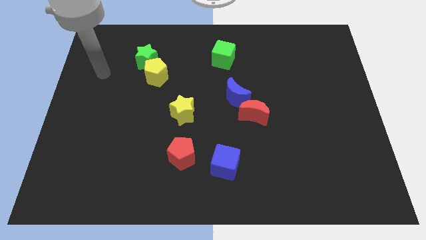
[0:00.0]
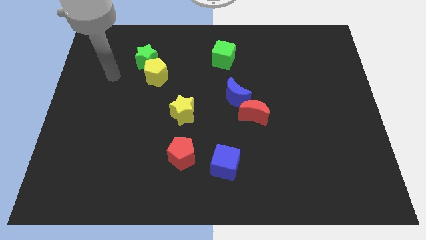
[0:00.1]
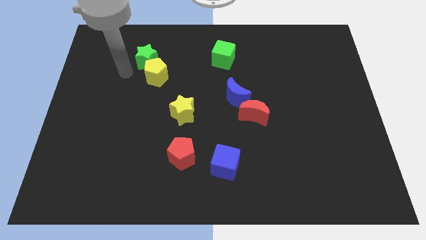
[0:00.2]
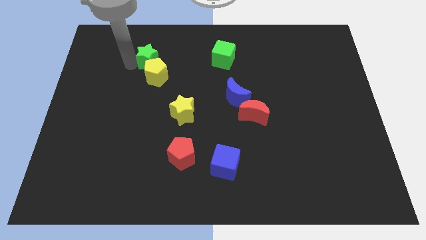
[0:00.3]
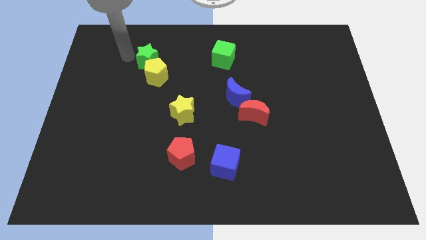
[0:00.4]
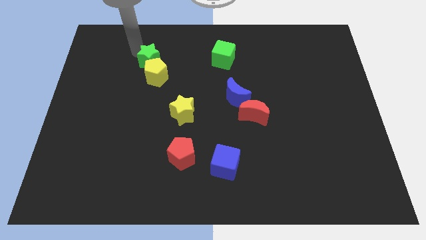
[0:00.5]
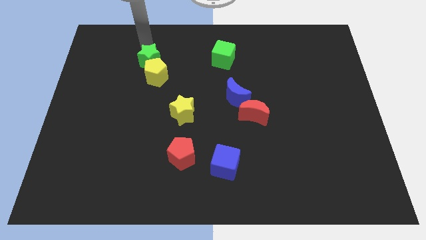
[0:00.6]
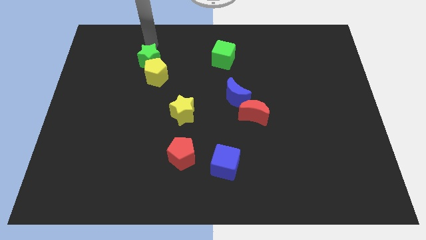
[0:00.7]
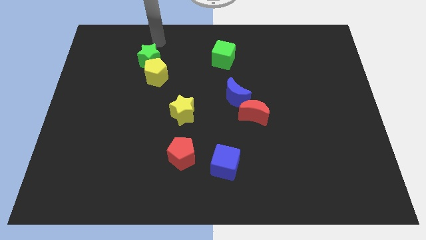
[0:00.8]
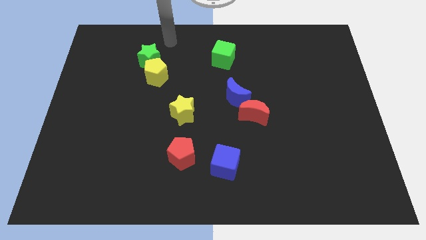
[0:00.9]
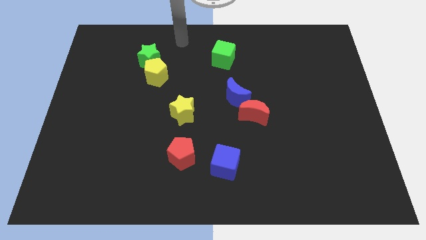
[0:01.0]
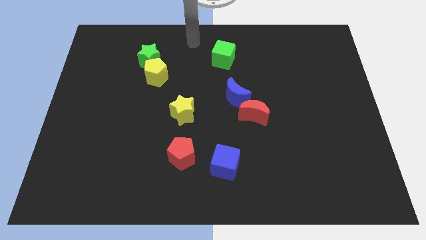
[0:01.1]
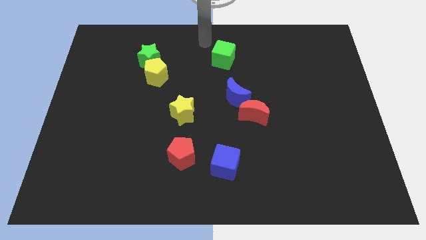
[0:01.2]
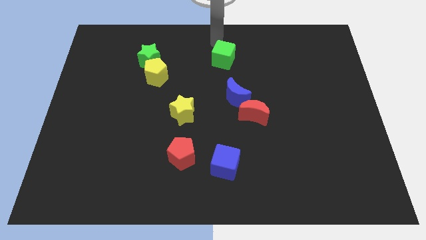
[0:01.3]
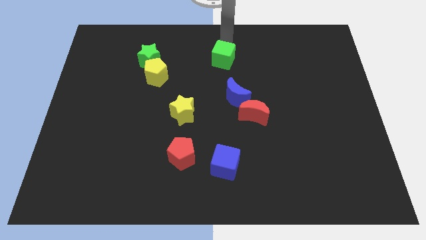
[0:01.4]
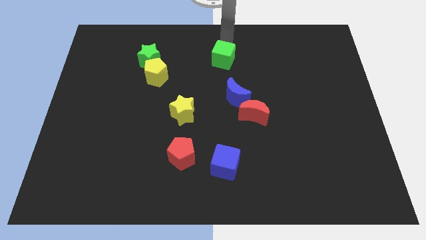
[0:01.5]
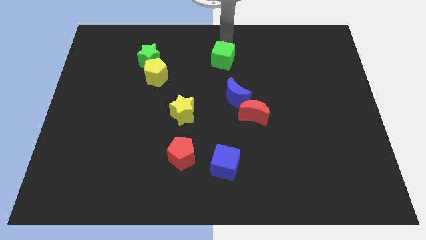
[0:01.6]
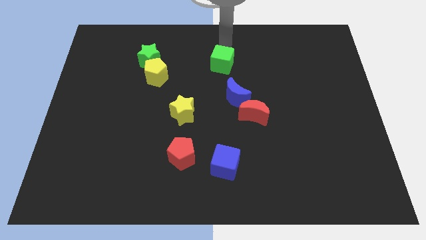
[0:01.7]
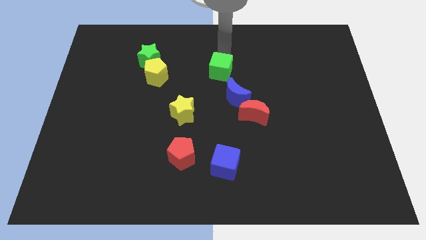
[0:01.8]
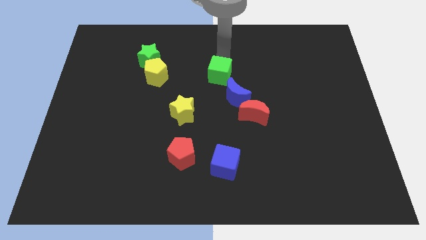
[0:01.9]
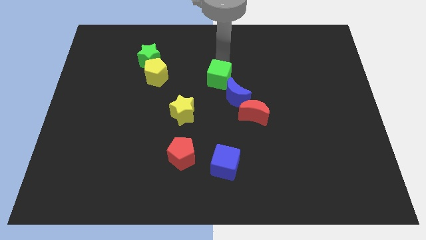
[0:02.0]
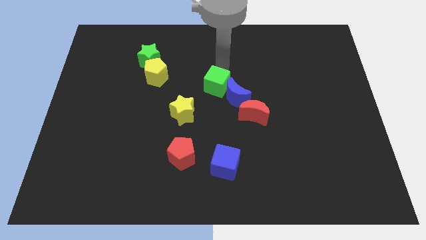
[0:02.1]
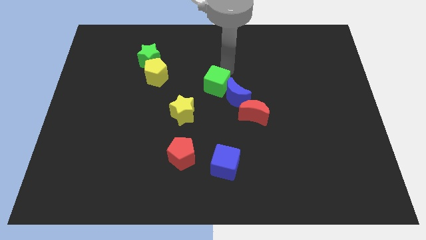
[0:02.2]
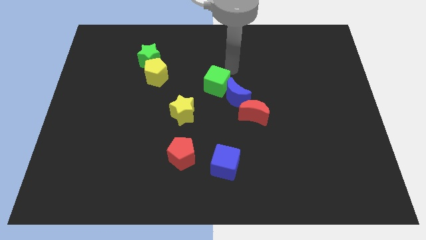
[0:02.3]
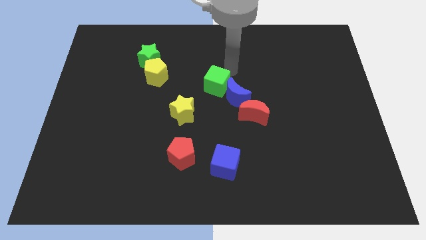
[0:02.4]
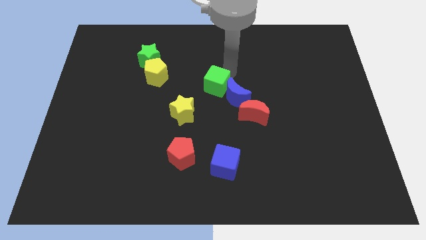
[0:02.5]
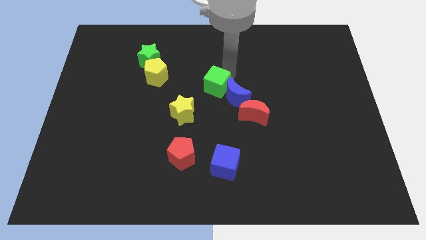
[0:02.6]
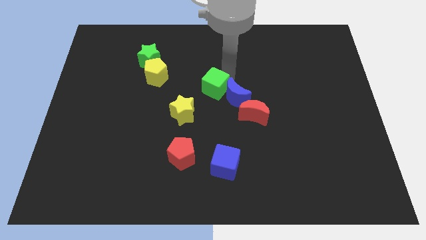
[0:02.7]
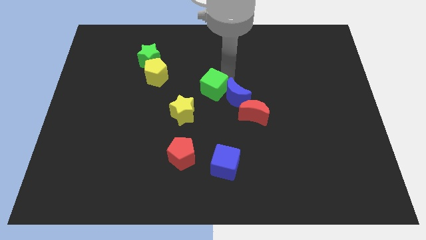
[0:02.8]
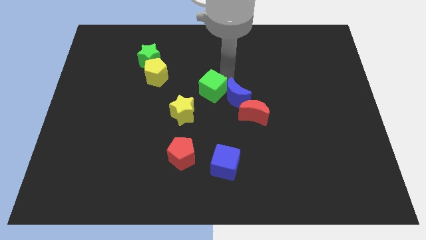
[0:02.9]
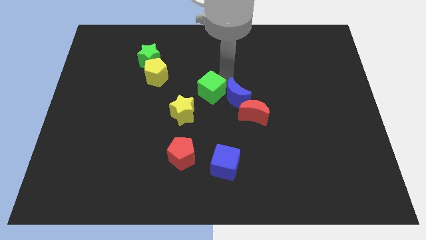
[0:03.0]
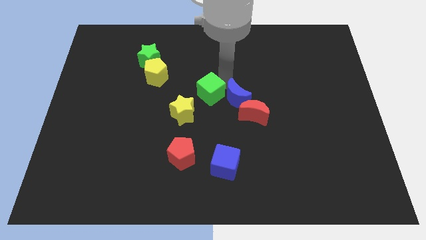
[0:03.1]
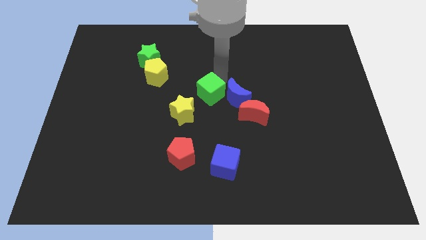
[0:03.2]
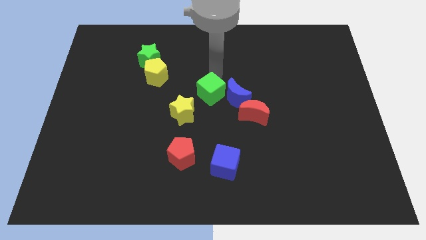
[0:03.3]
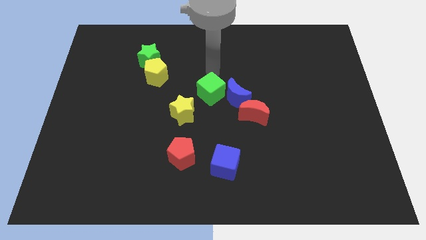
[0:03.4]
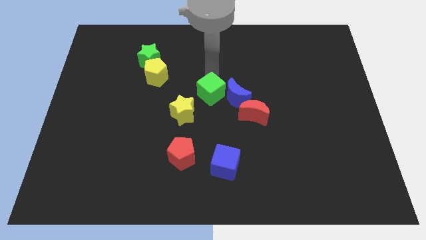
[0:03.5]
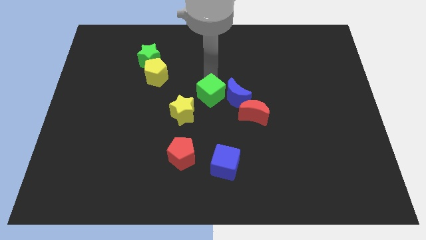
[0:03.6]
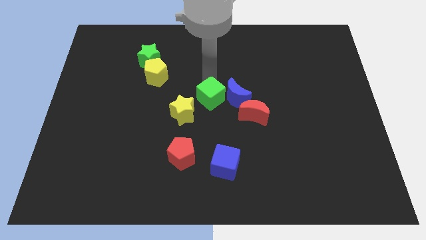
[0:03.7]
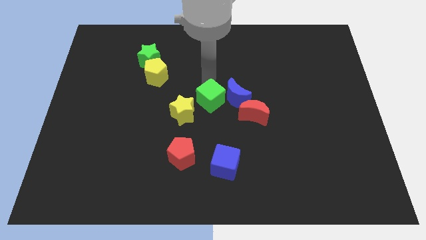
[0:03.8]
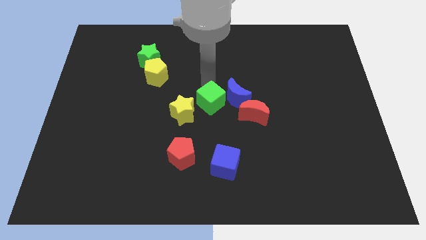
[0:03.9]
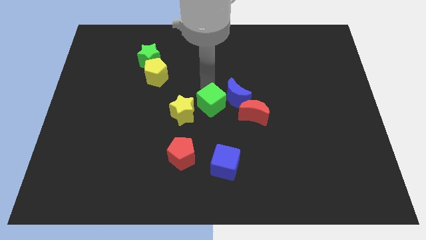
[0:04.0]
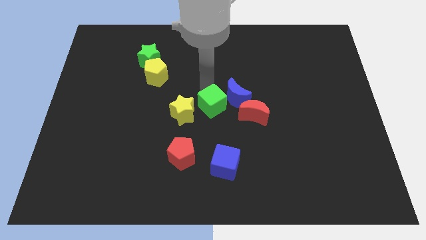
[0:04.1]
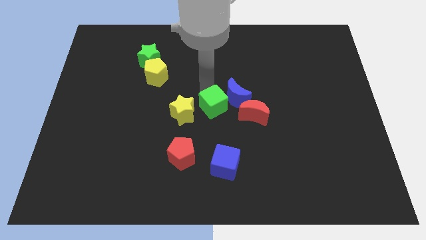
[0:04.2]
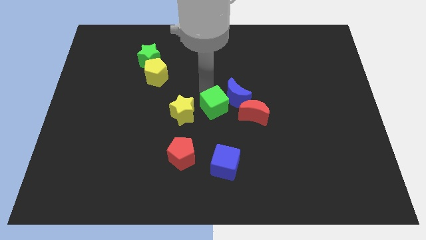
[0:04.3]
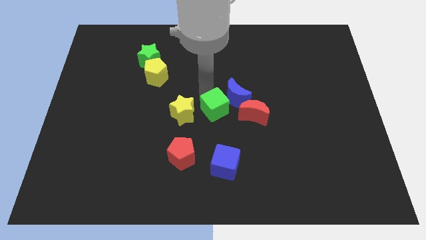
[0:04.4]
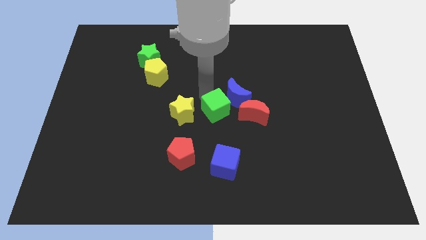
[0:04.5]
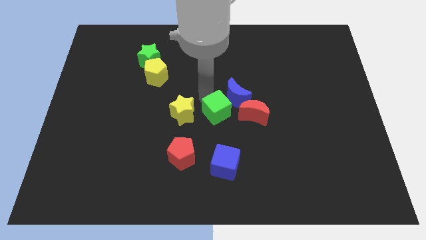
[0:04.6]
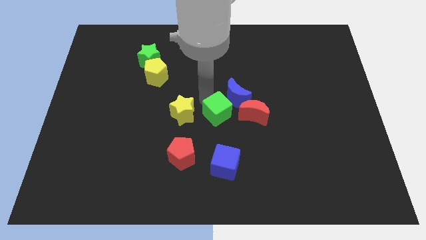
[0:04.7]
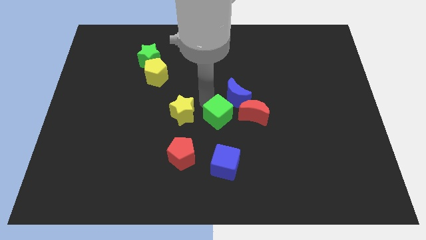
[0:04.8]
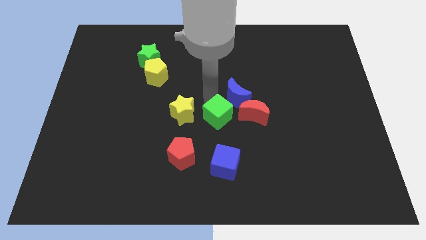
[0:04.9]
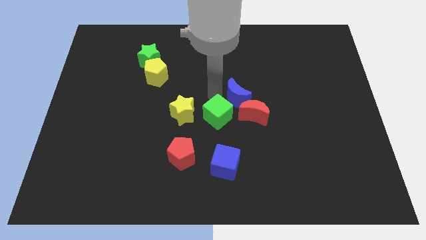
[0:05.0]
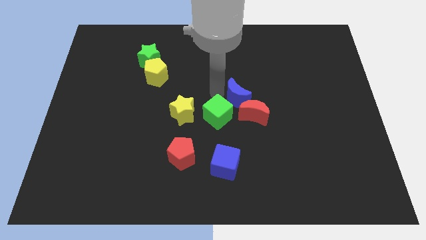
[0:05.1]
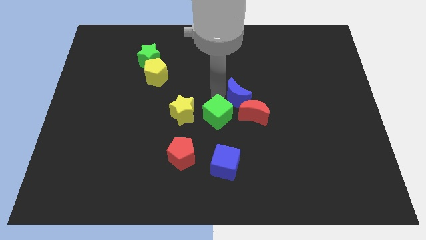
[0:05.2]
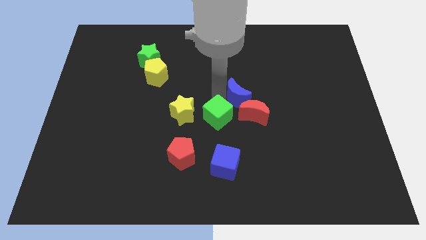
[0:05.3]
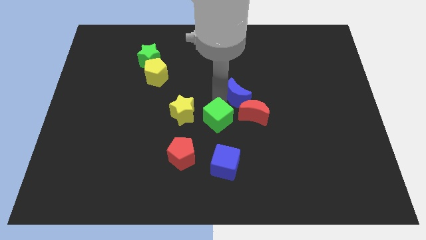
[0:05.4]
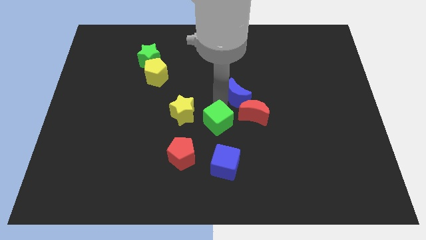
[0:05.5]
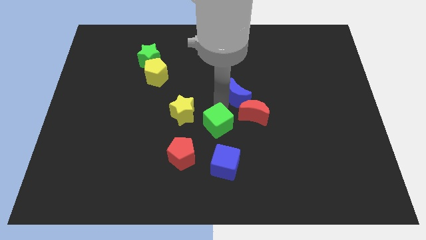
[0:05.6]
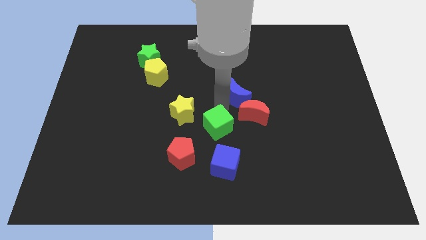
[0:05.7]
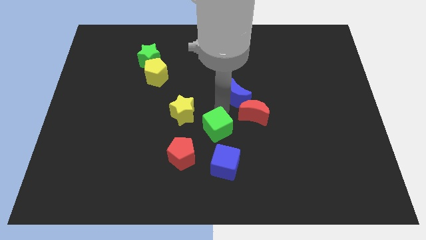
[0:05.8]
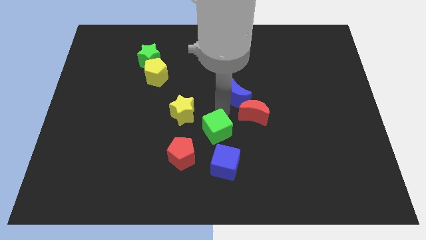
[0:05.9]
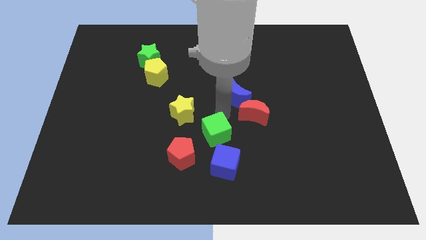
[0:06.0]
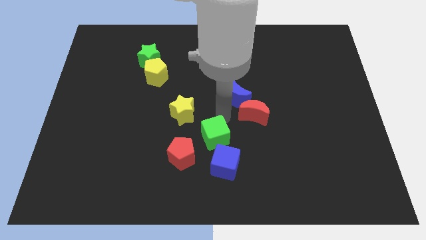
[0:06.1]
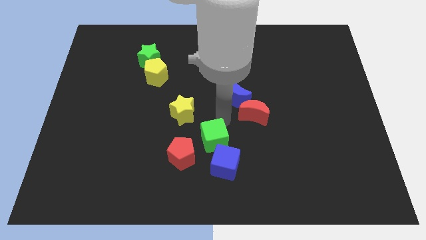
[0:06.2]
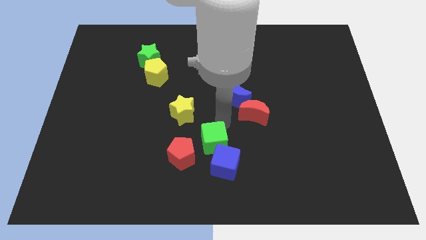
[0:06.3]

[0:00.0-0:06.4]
move the green cube to the blue cube
